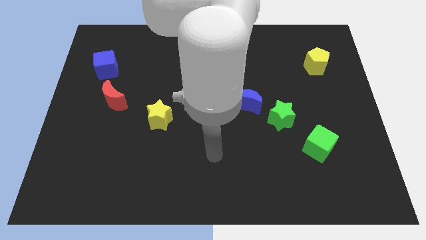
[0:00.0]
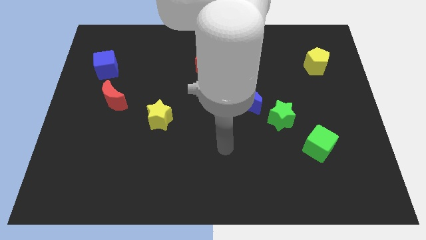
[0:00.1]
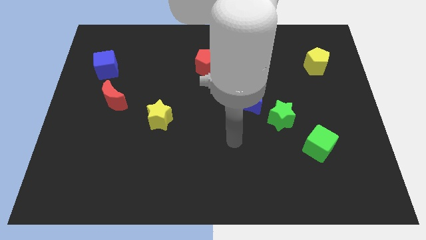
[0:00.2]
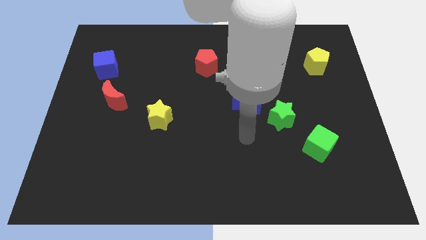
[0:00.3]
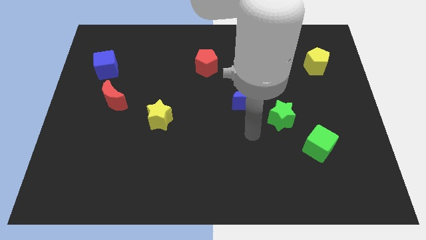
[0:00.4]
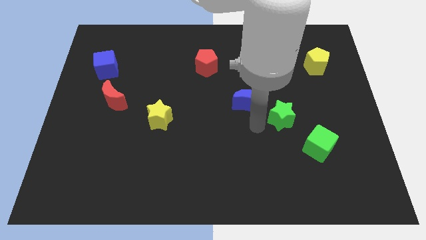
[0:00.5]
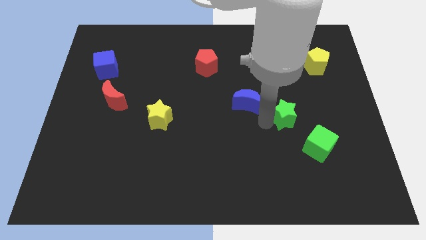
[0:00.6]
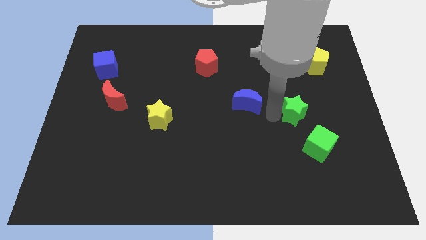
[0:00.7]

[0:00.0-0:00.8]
pull the blue moon apart from the green star

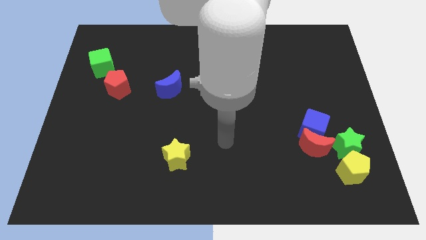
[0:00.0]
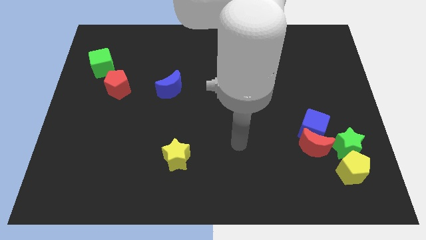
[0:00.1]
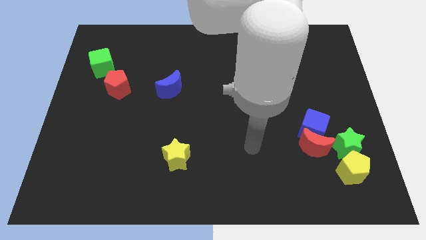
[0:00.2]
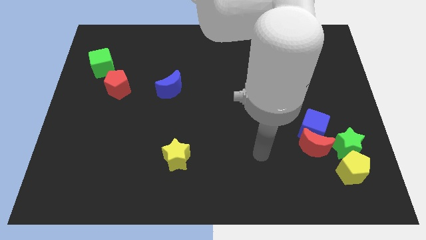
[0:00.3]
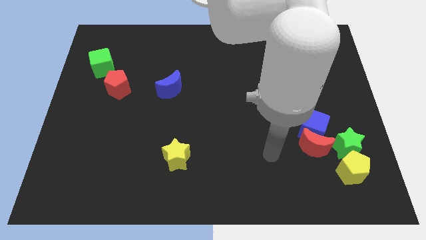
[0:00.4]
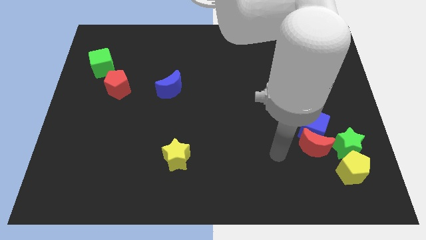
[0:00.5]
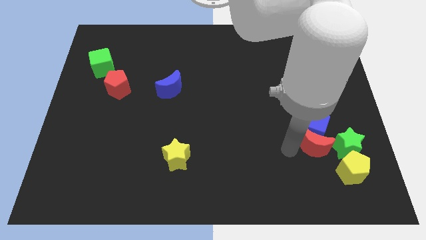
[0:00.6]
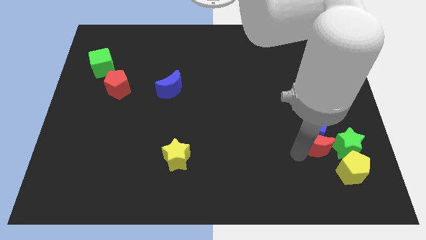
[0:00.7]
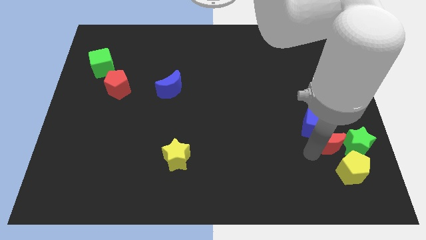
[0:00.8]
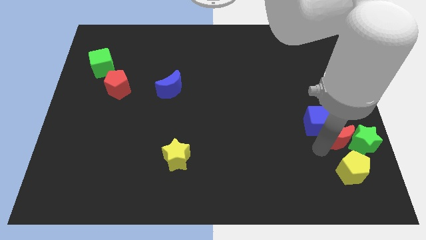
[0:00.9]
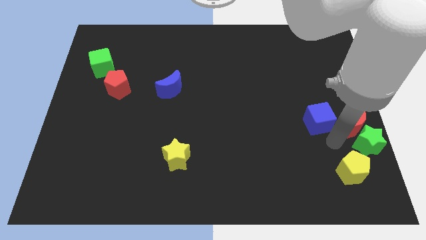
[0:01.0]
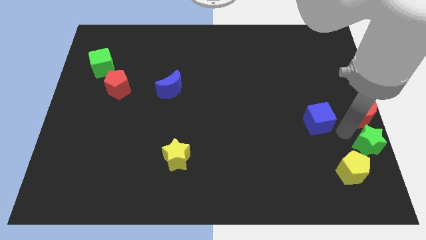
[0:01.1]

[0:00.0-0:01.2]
move the blue cube away from the red moon and green star

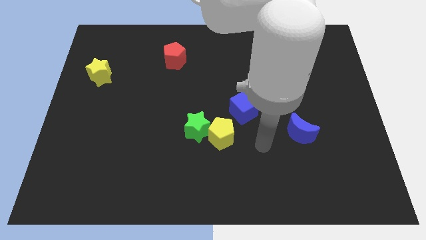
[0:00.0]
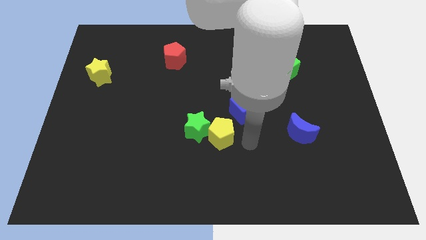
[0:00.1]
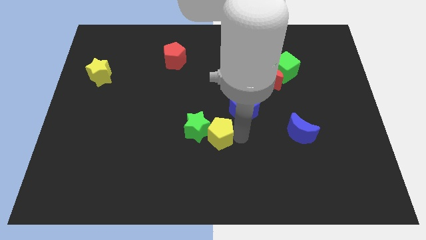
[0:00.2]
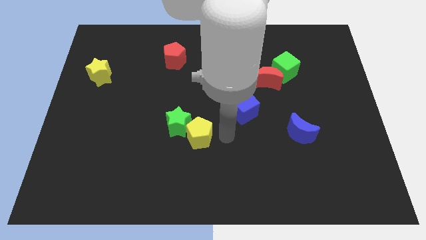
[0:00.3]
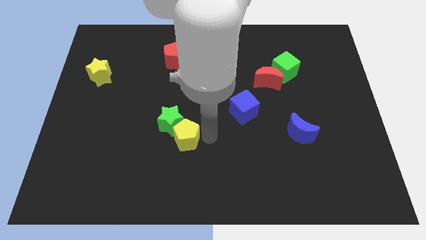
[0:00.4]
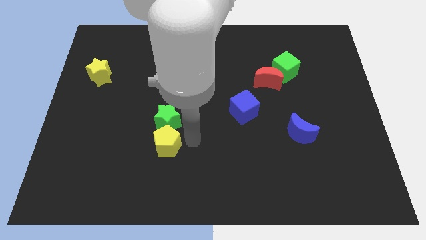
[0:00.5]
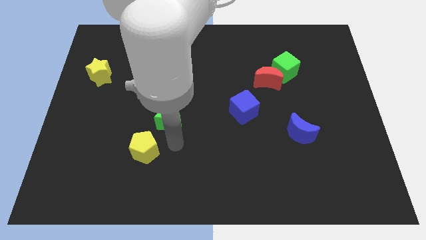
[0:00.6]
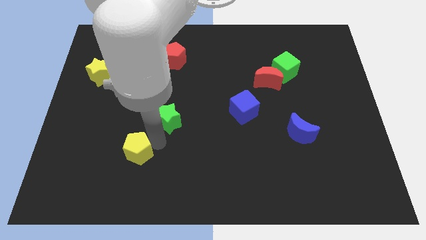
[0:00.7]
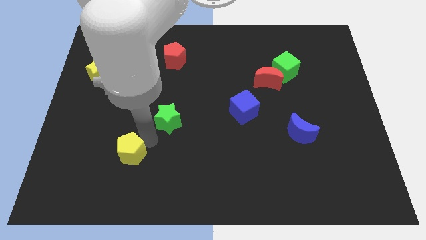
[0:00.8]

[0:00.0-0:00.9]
separate the green star from the yellow pentagon

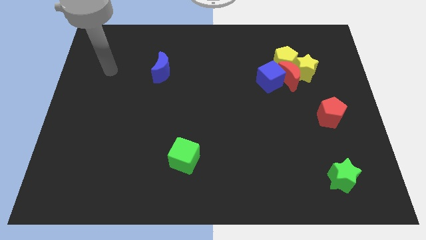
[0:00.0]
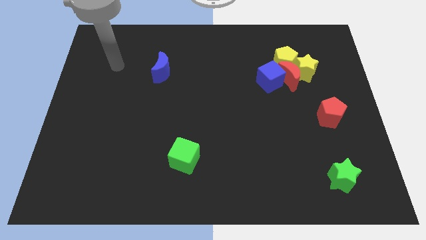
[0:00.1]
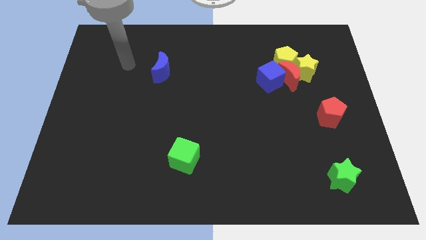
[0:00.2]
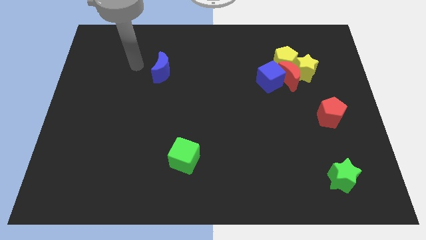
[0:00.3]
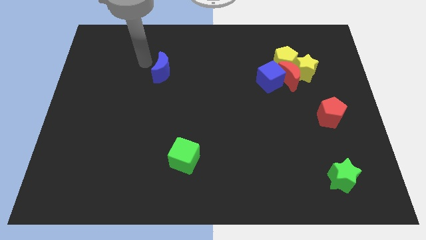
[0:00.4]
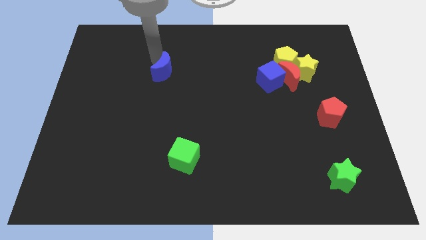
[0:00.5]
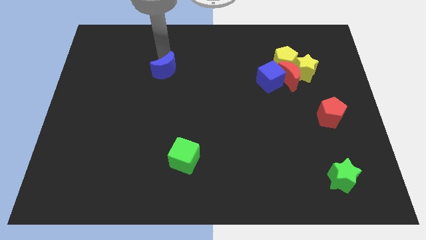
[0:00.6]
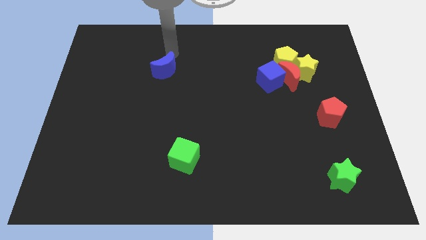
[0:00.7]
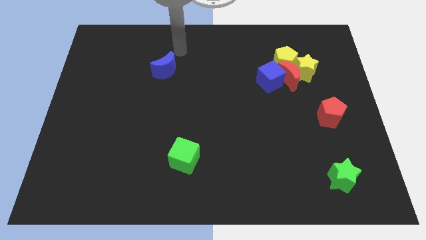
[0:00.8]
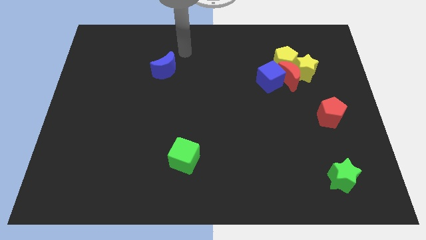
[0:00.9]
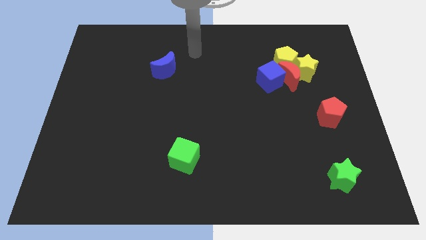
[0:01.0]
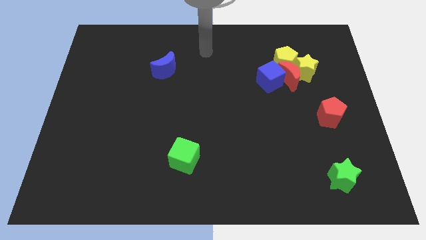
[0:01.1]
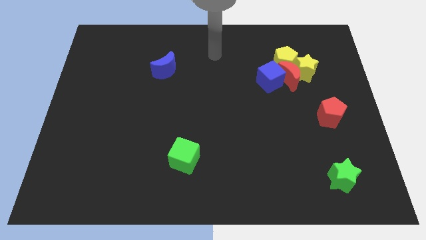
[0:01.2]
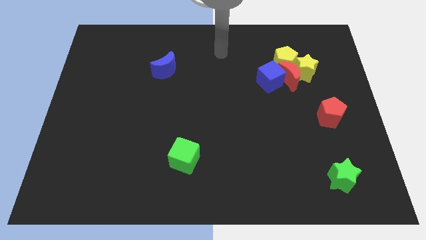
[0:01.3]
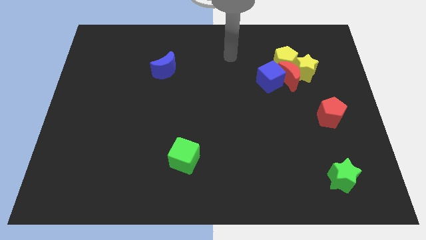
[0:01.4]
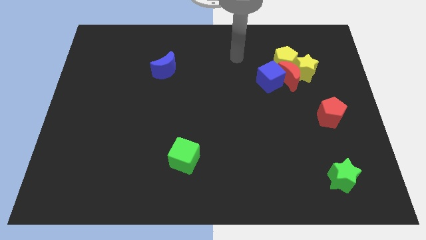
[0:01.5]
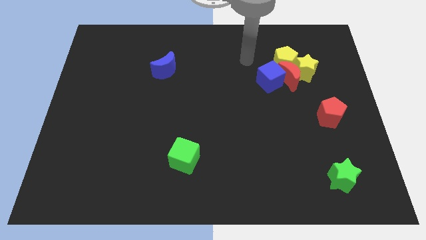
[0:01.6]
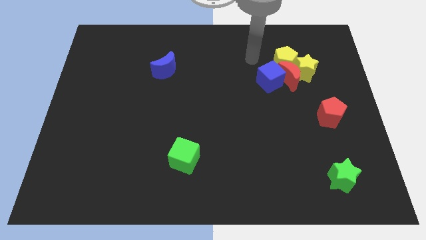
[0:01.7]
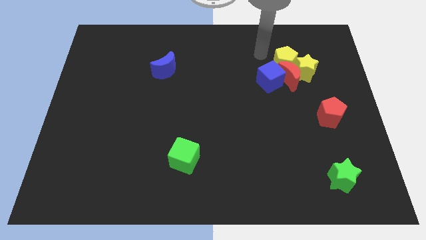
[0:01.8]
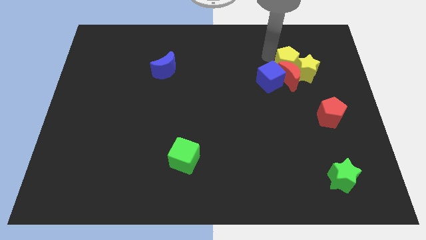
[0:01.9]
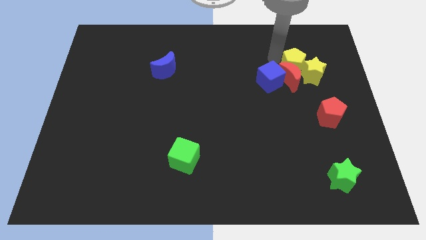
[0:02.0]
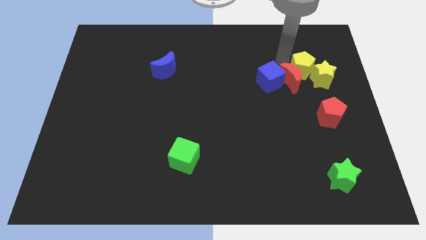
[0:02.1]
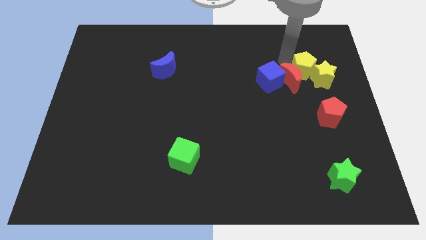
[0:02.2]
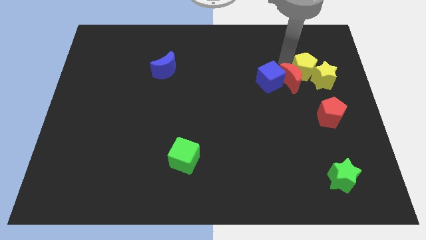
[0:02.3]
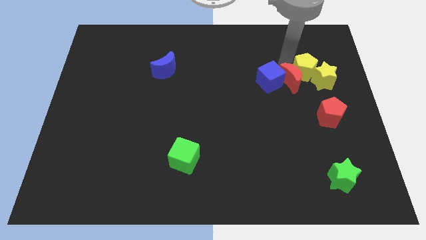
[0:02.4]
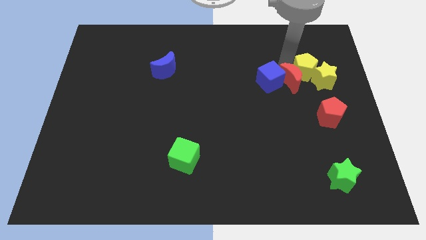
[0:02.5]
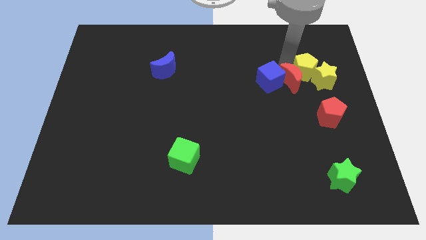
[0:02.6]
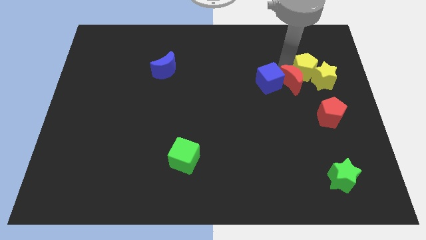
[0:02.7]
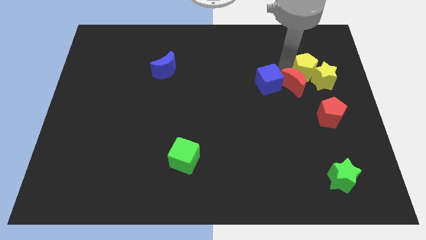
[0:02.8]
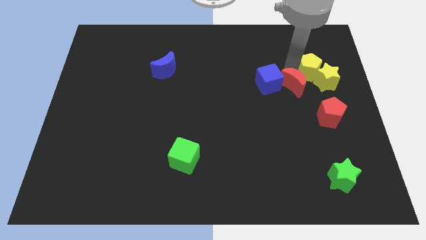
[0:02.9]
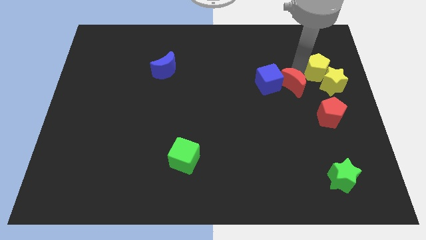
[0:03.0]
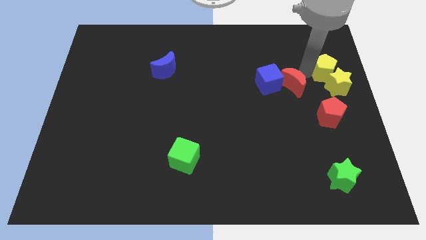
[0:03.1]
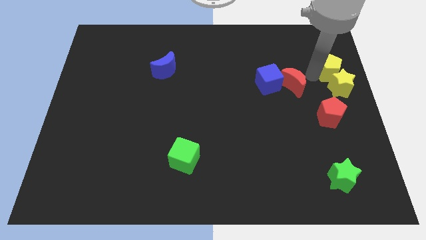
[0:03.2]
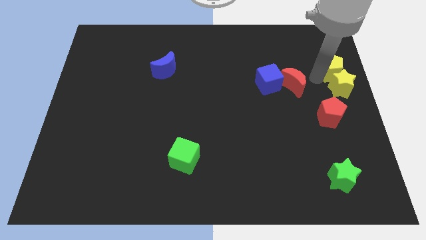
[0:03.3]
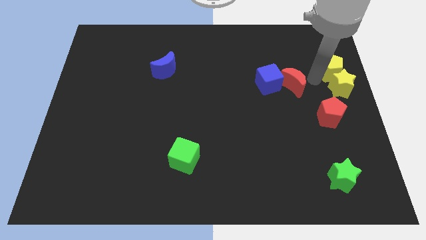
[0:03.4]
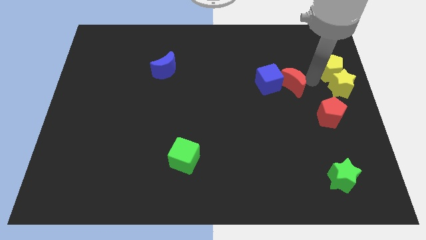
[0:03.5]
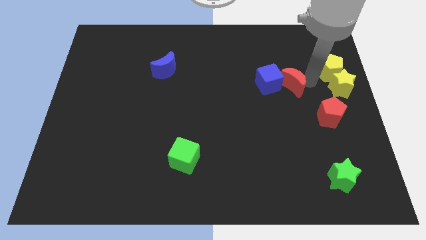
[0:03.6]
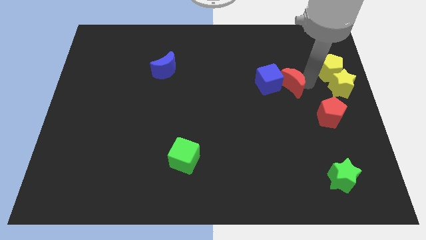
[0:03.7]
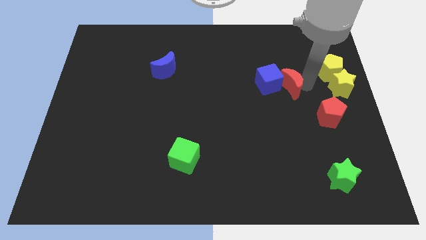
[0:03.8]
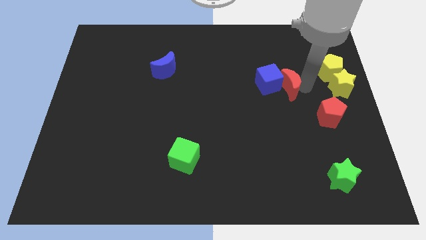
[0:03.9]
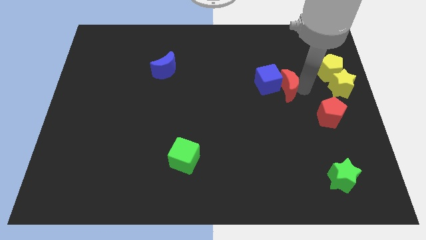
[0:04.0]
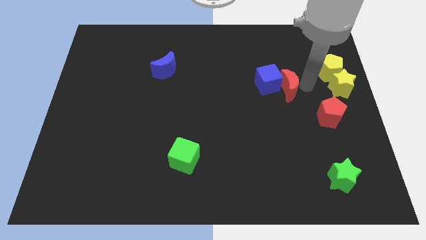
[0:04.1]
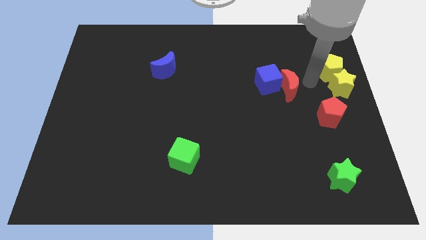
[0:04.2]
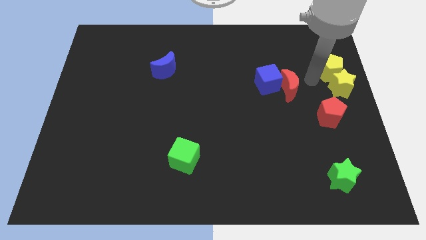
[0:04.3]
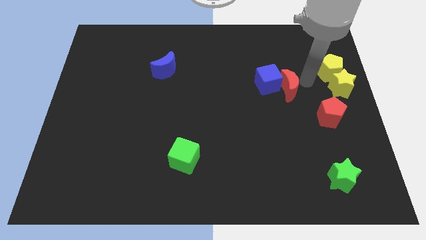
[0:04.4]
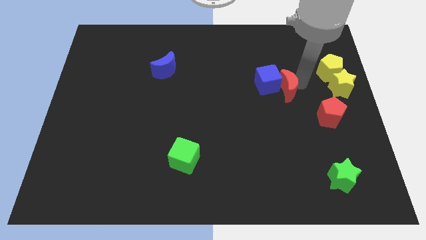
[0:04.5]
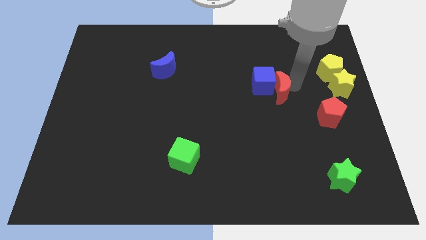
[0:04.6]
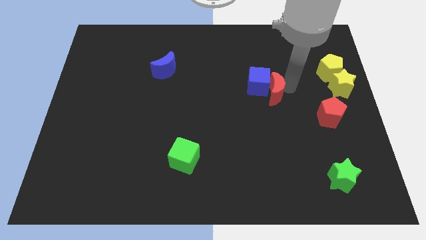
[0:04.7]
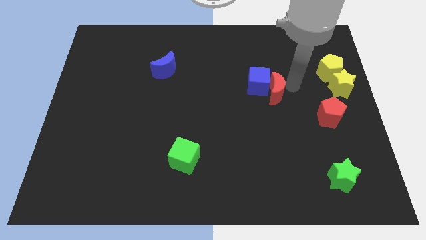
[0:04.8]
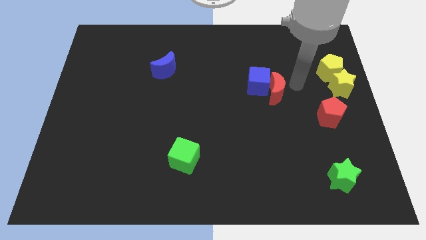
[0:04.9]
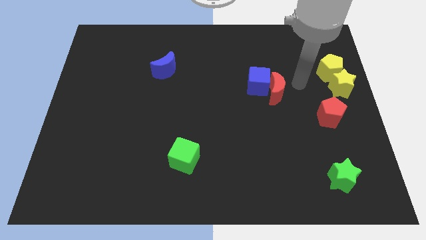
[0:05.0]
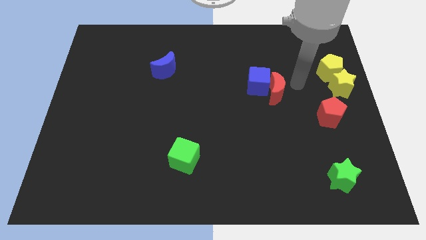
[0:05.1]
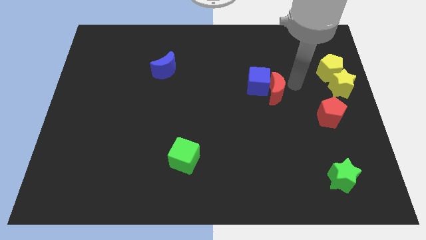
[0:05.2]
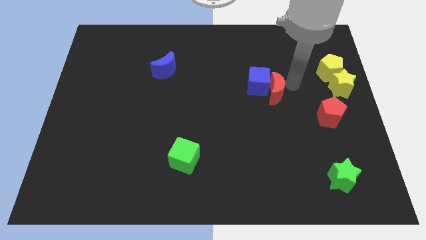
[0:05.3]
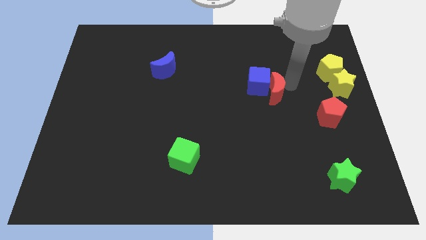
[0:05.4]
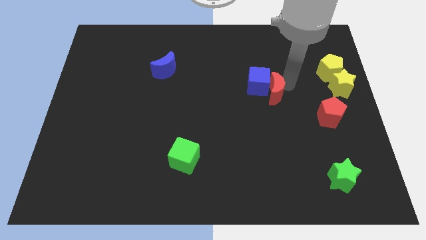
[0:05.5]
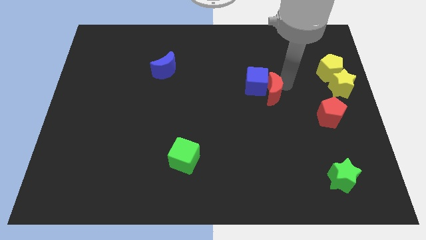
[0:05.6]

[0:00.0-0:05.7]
pull the red moon apart from the group

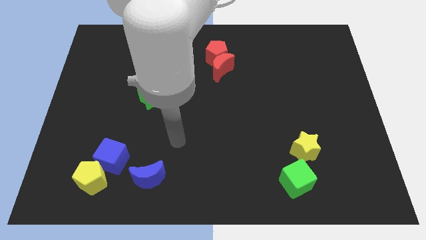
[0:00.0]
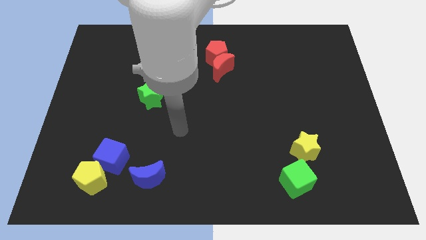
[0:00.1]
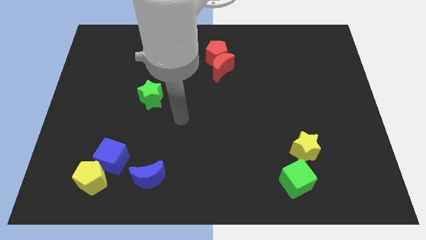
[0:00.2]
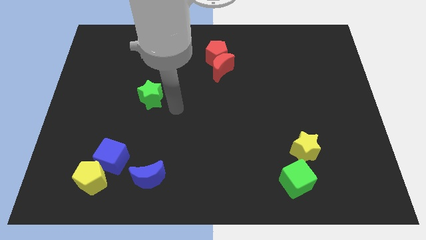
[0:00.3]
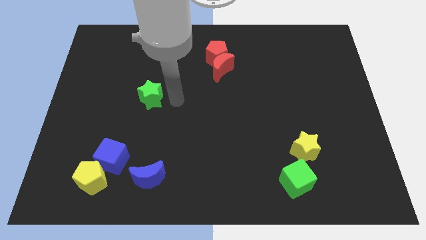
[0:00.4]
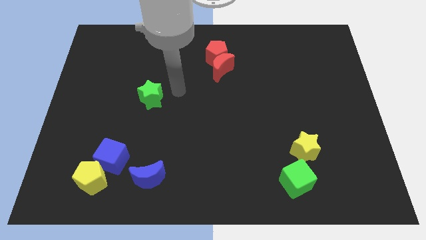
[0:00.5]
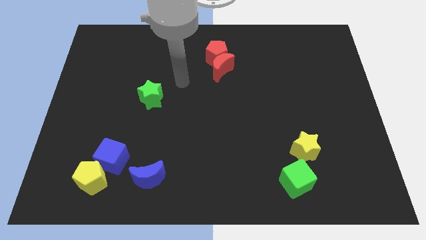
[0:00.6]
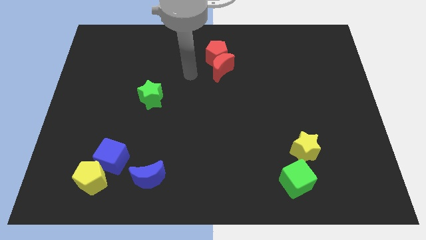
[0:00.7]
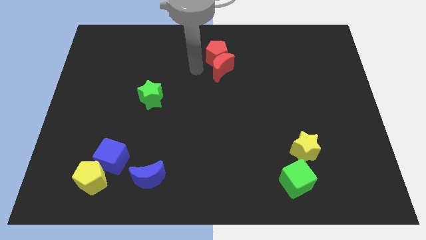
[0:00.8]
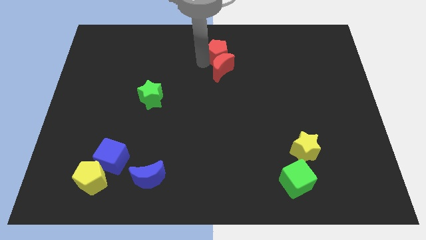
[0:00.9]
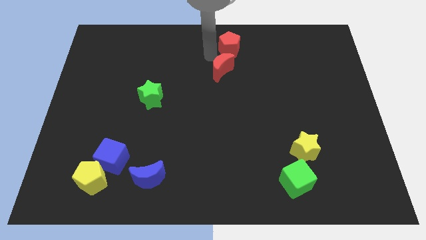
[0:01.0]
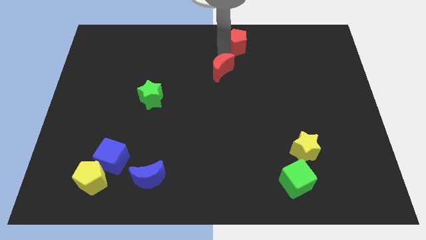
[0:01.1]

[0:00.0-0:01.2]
move the red moon away from the red pentagon
